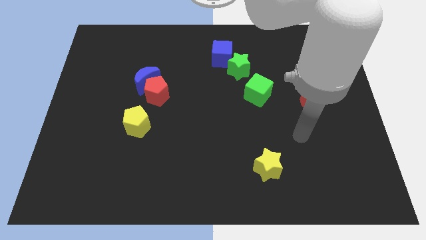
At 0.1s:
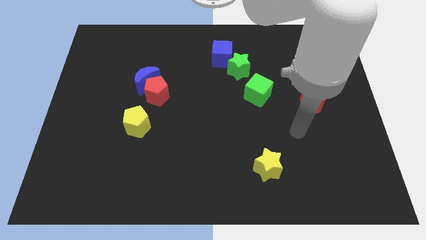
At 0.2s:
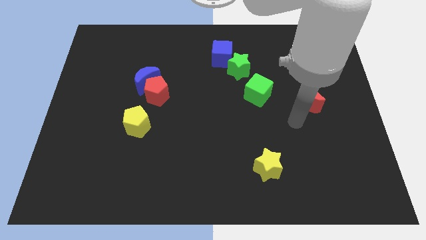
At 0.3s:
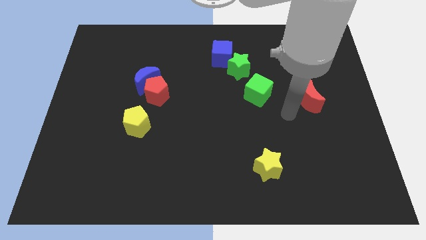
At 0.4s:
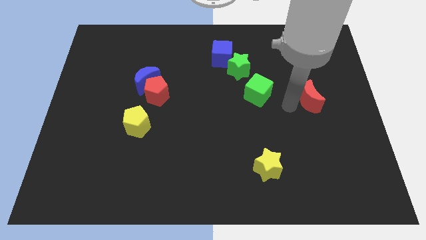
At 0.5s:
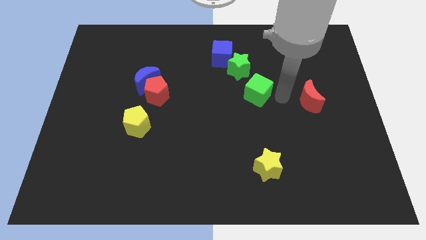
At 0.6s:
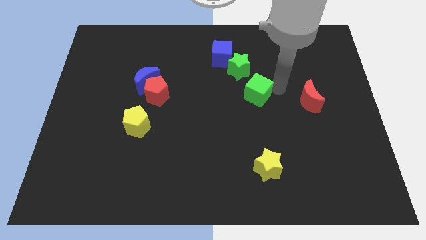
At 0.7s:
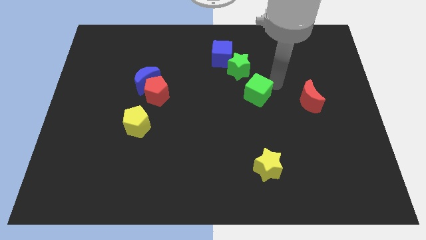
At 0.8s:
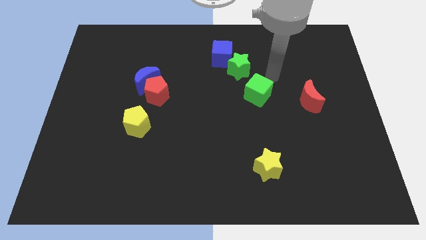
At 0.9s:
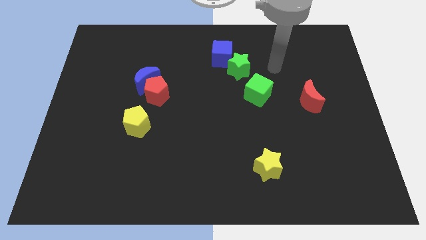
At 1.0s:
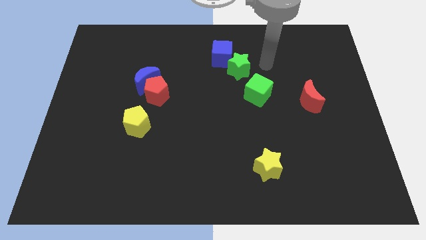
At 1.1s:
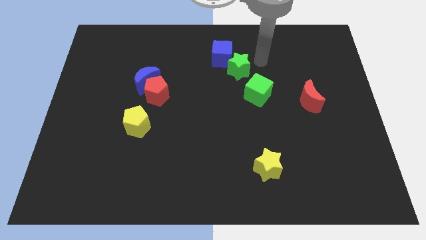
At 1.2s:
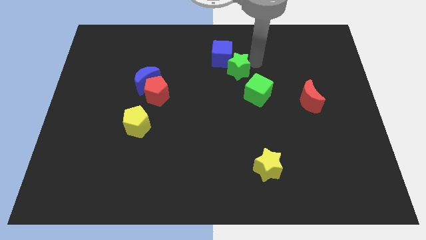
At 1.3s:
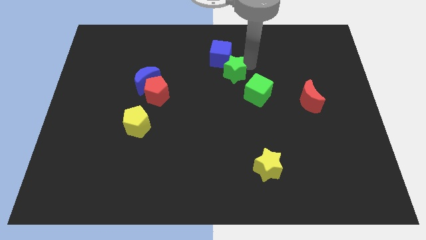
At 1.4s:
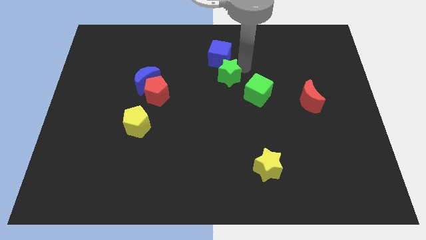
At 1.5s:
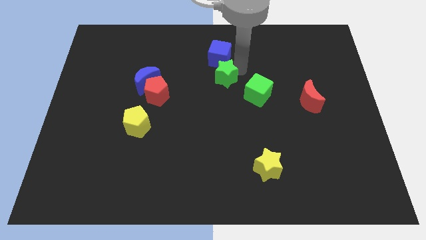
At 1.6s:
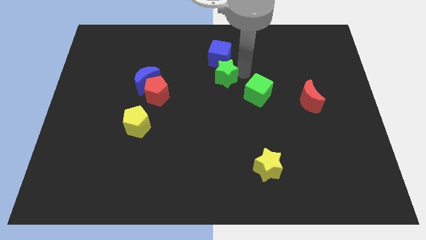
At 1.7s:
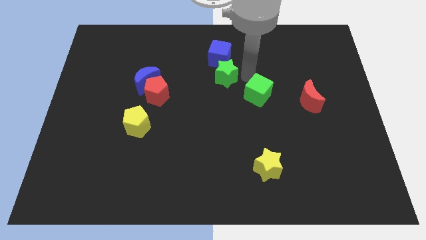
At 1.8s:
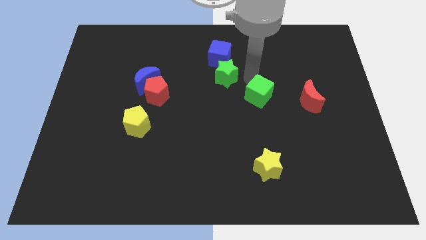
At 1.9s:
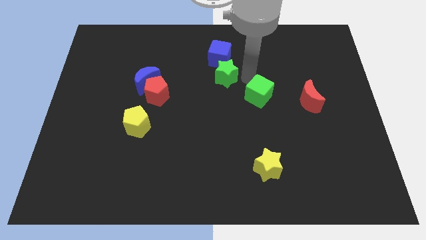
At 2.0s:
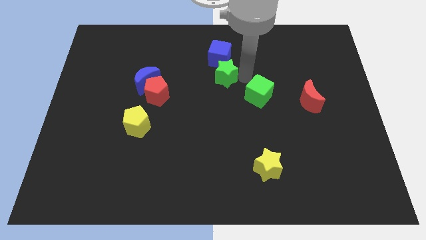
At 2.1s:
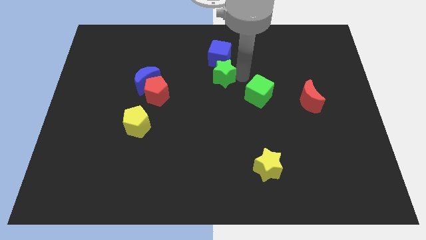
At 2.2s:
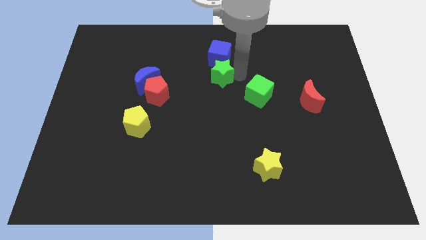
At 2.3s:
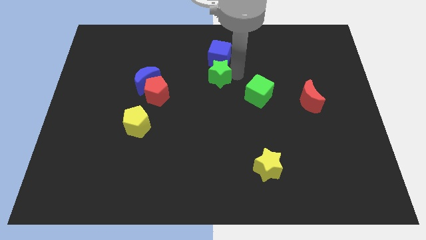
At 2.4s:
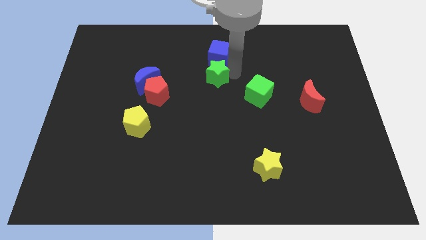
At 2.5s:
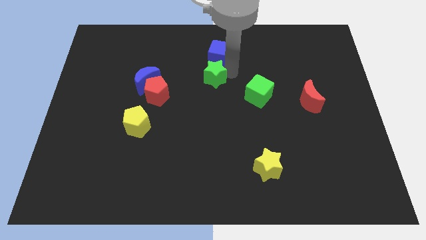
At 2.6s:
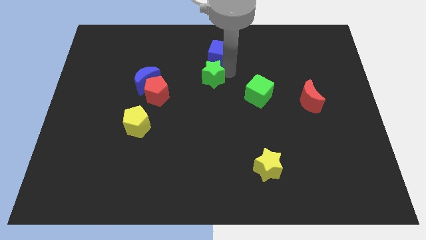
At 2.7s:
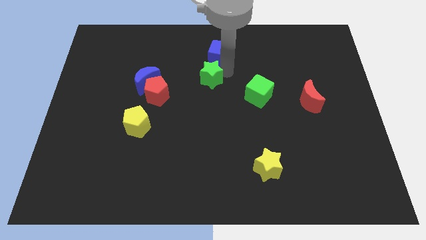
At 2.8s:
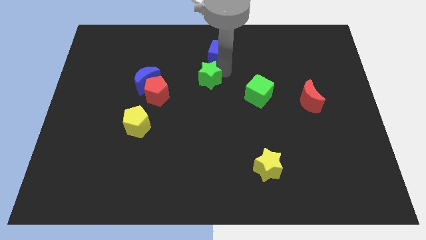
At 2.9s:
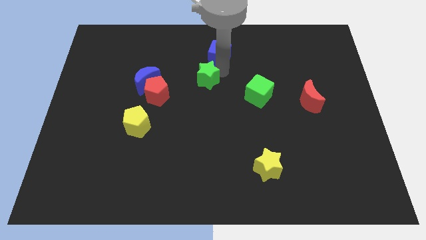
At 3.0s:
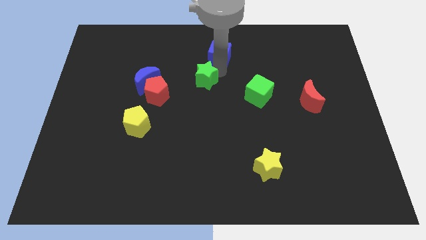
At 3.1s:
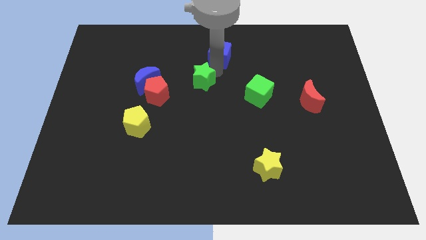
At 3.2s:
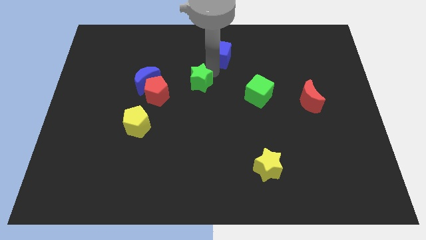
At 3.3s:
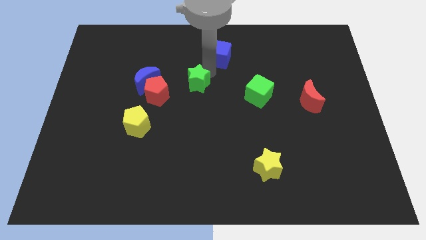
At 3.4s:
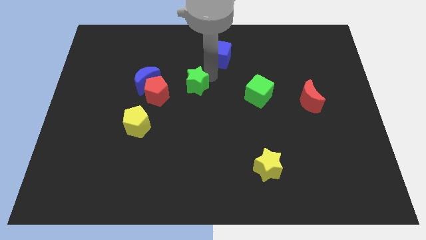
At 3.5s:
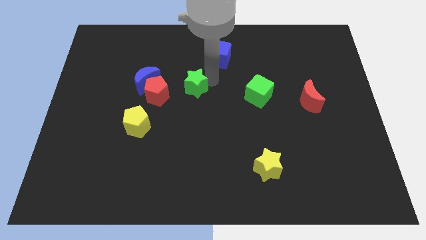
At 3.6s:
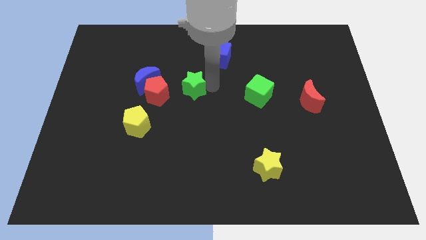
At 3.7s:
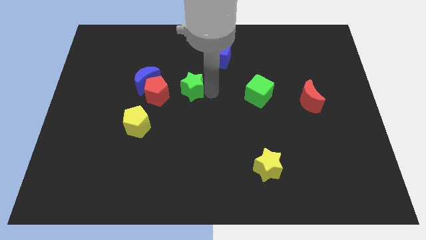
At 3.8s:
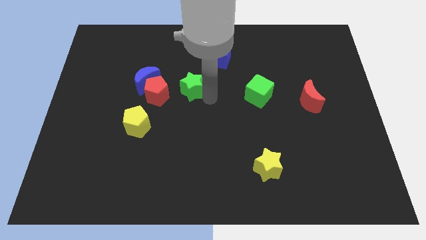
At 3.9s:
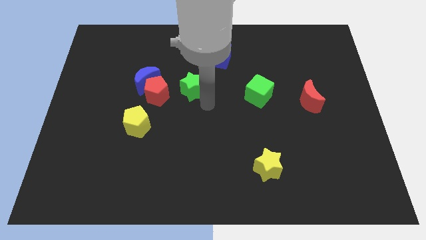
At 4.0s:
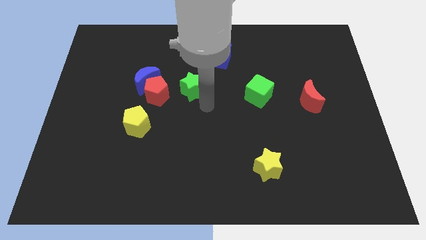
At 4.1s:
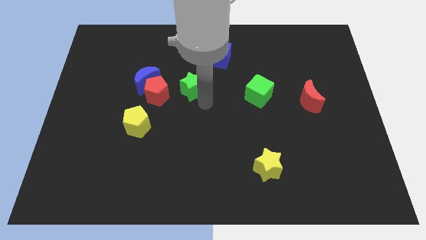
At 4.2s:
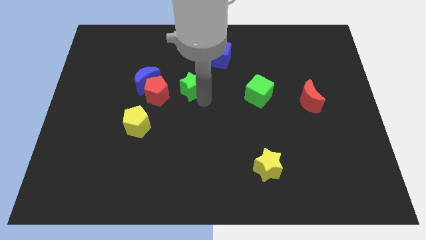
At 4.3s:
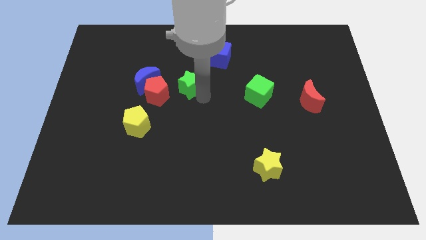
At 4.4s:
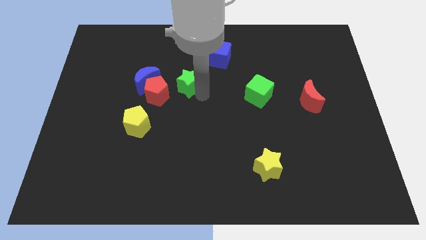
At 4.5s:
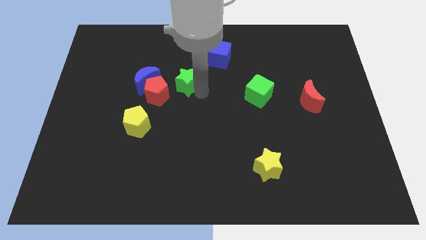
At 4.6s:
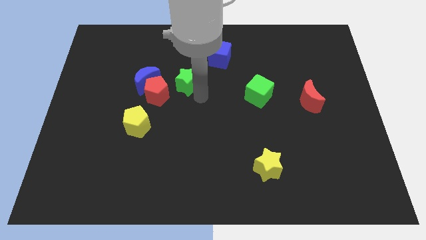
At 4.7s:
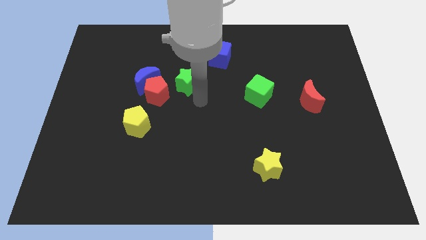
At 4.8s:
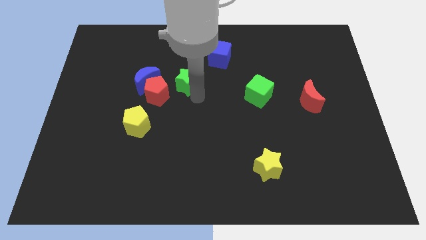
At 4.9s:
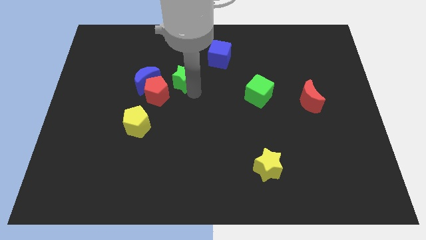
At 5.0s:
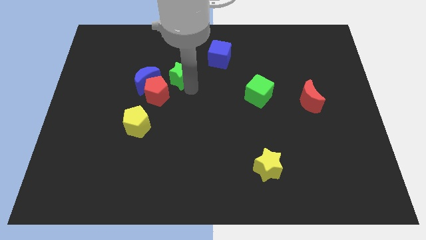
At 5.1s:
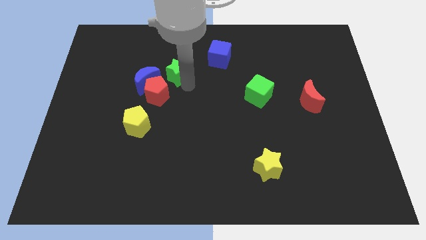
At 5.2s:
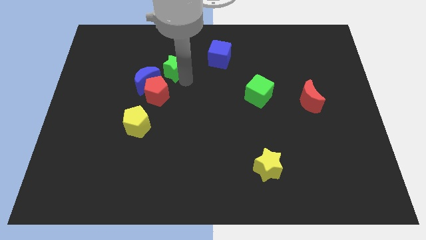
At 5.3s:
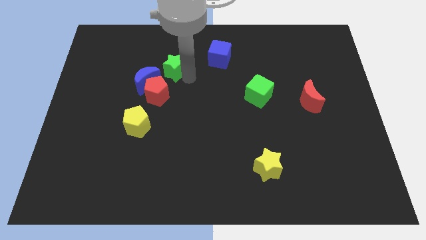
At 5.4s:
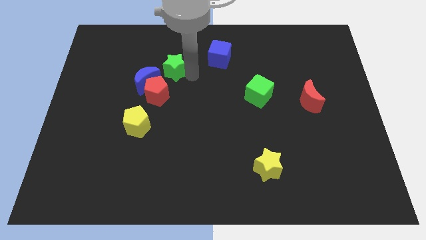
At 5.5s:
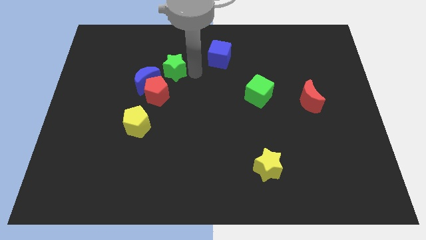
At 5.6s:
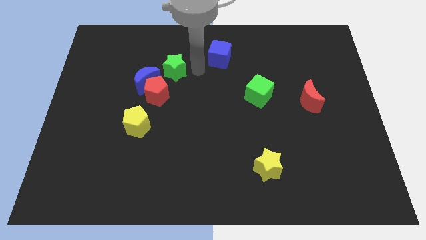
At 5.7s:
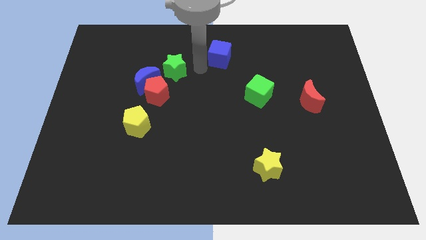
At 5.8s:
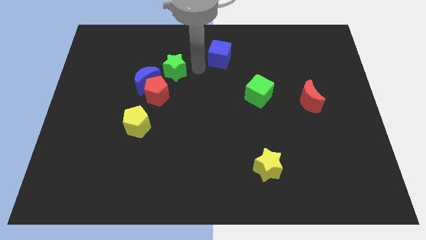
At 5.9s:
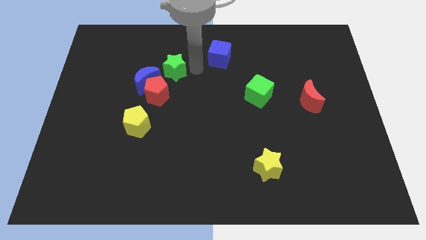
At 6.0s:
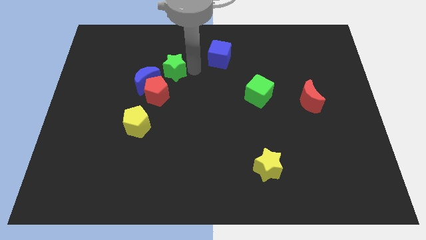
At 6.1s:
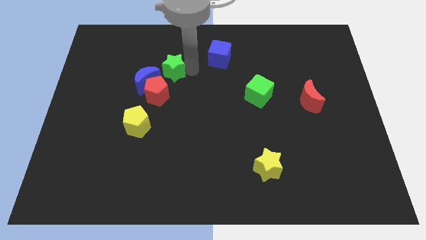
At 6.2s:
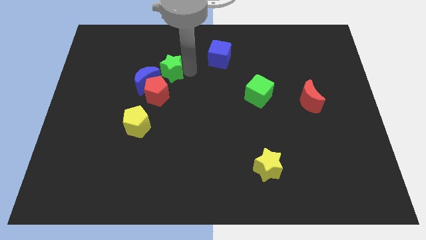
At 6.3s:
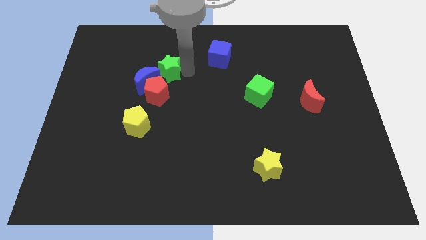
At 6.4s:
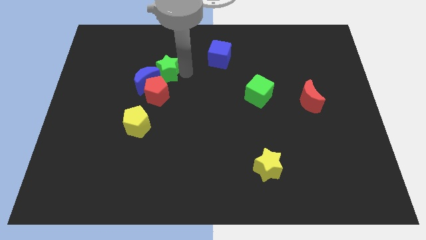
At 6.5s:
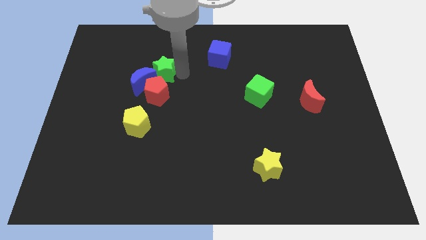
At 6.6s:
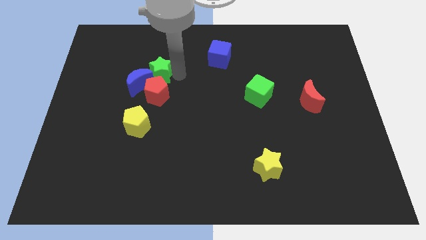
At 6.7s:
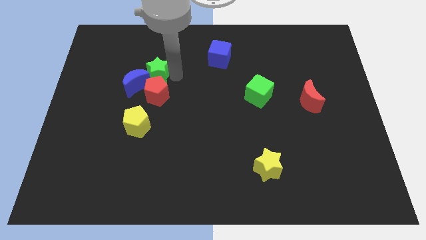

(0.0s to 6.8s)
move the green star to the left

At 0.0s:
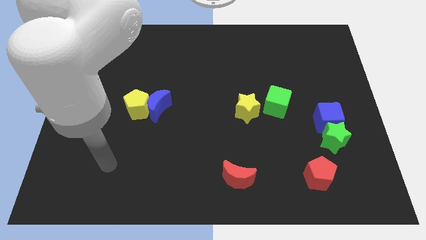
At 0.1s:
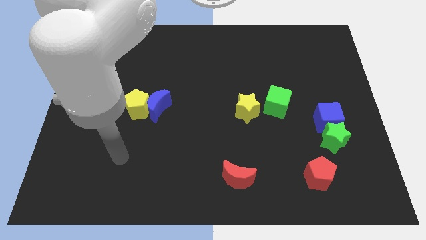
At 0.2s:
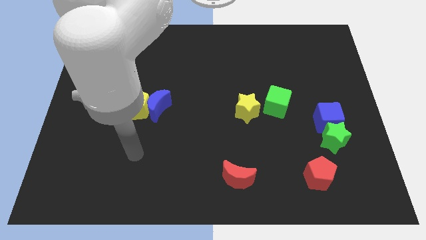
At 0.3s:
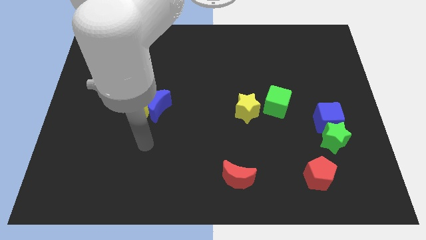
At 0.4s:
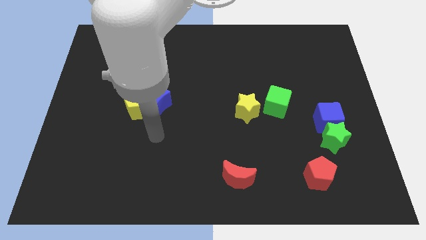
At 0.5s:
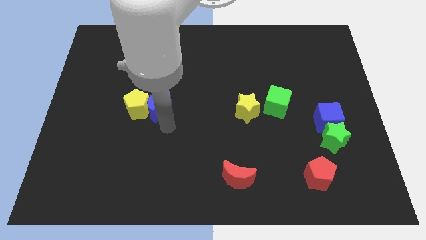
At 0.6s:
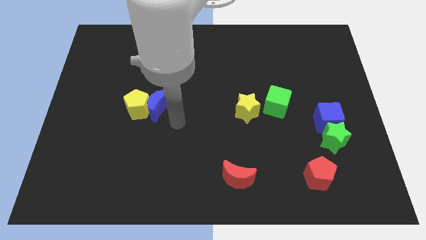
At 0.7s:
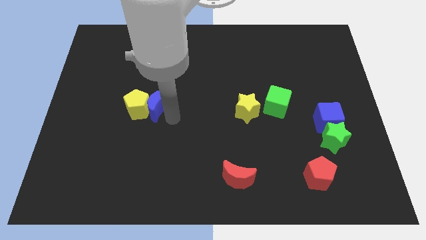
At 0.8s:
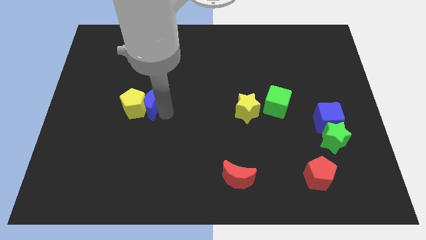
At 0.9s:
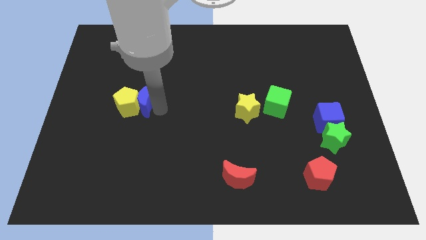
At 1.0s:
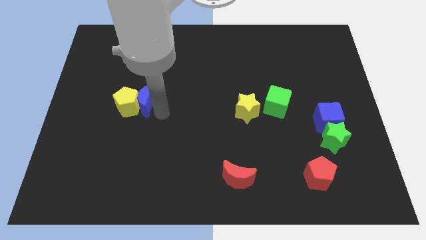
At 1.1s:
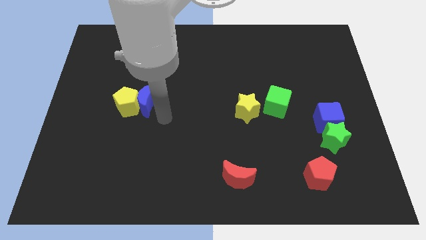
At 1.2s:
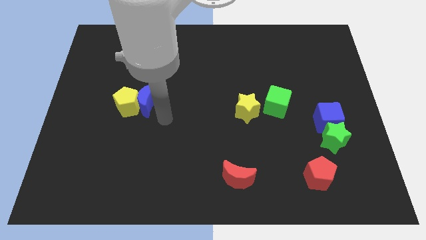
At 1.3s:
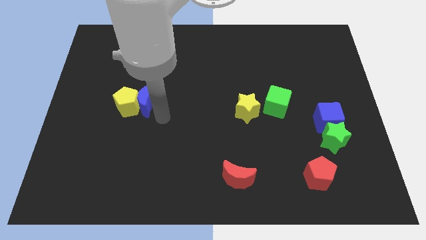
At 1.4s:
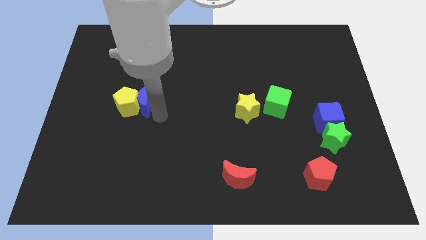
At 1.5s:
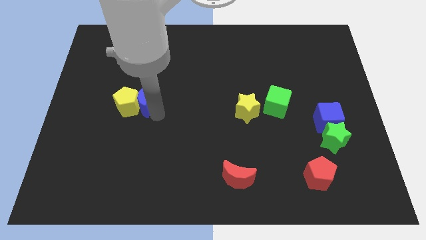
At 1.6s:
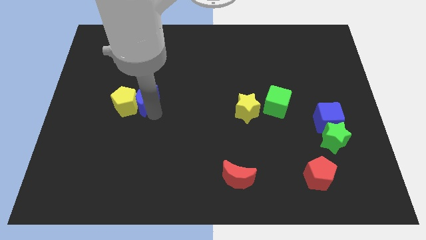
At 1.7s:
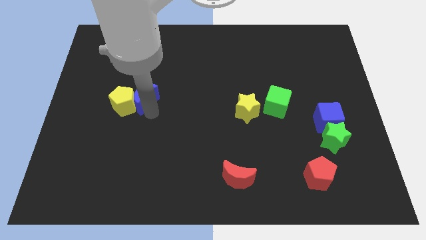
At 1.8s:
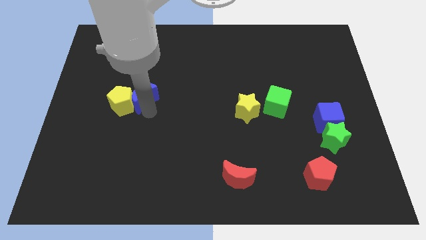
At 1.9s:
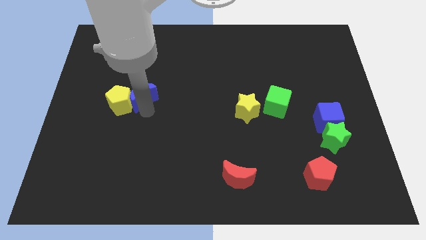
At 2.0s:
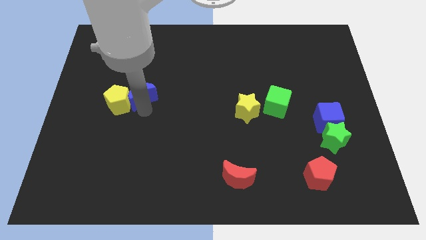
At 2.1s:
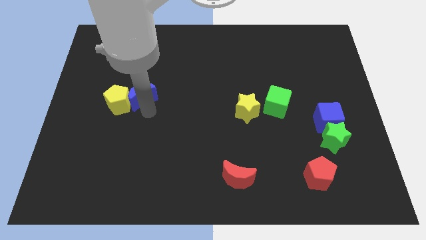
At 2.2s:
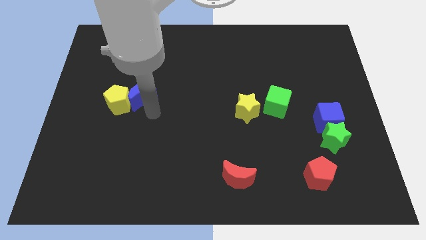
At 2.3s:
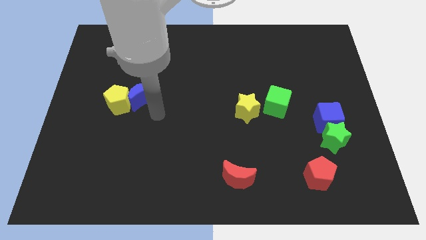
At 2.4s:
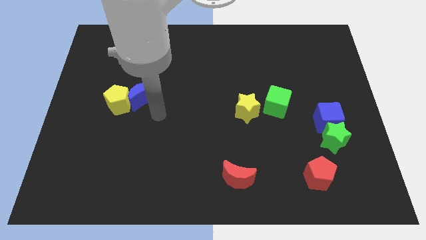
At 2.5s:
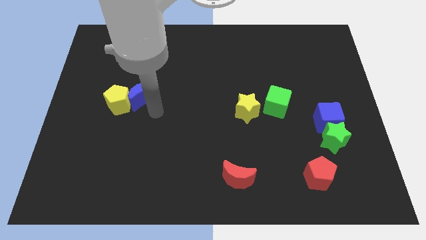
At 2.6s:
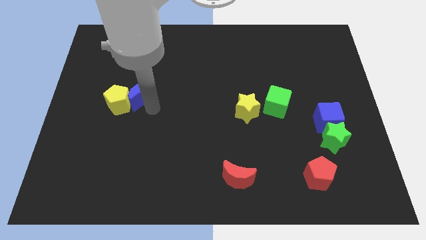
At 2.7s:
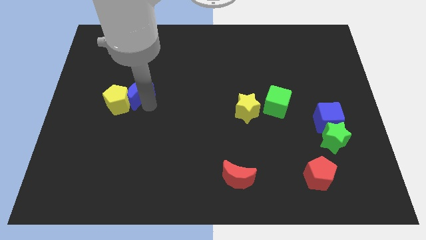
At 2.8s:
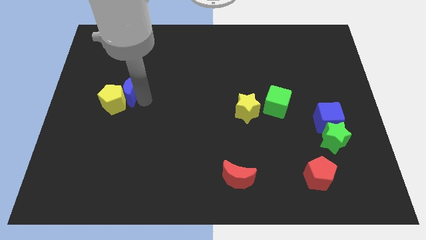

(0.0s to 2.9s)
slightly slide the blue moon up and then left
